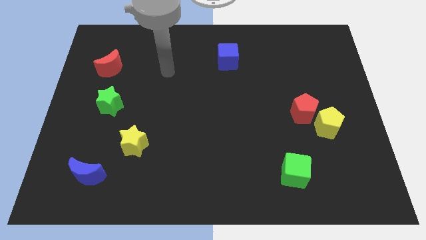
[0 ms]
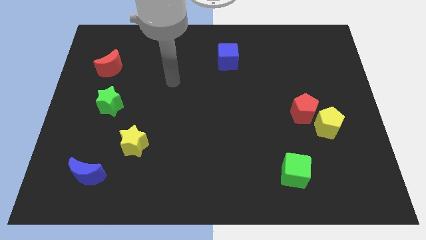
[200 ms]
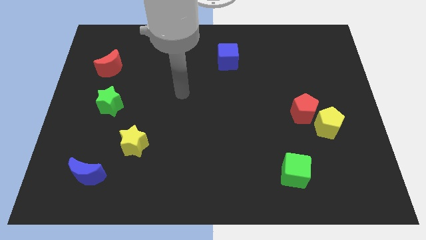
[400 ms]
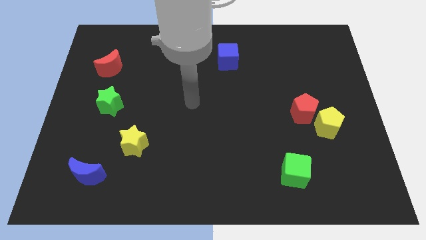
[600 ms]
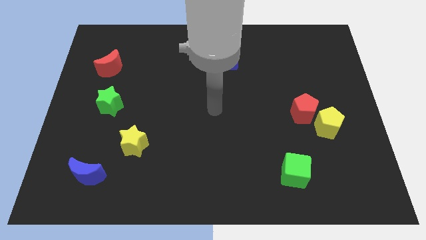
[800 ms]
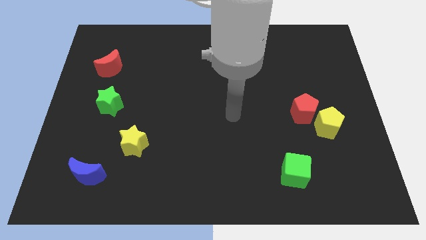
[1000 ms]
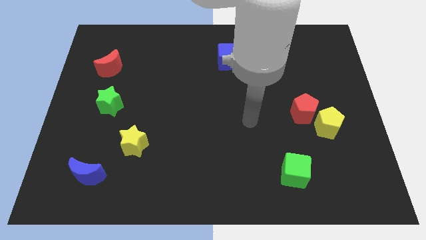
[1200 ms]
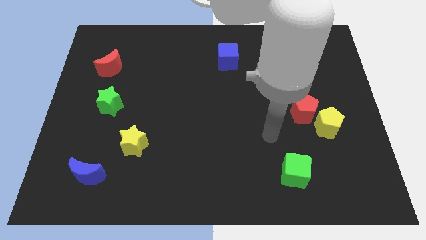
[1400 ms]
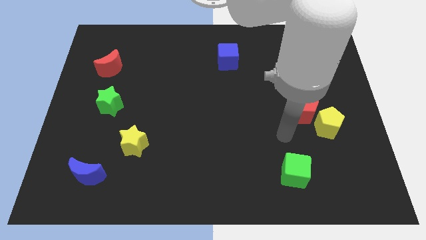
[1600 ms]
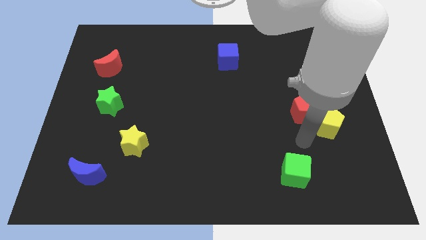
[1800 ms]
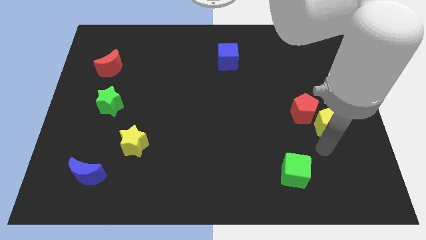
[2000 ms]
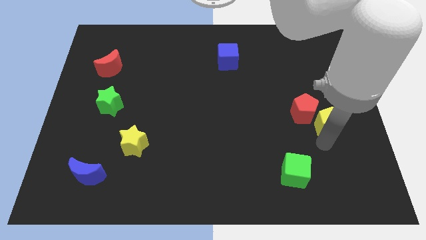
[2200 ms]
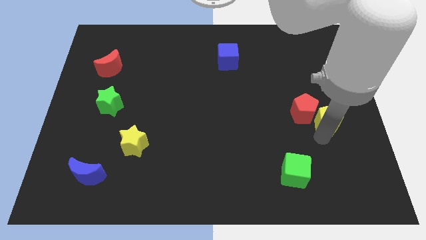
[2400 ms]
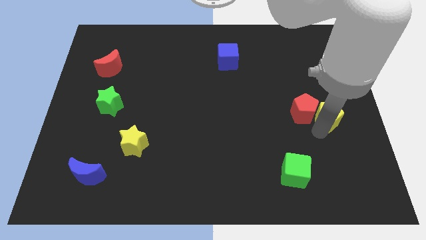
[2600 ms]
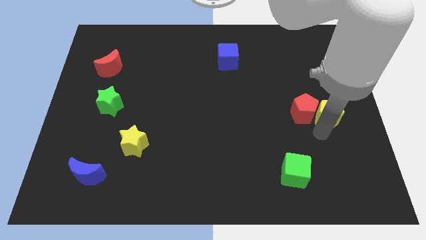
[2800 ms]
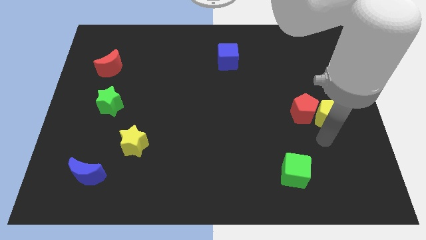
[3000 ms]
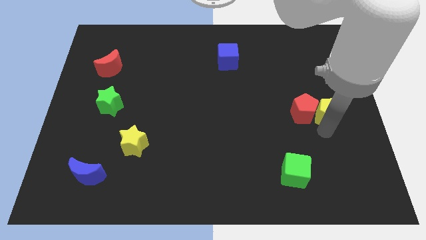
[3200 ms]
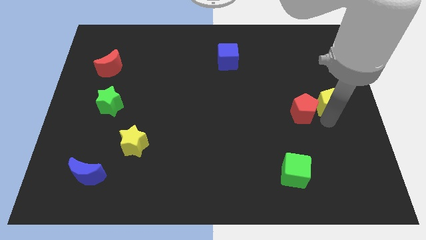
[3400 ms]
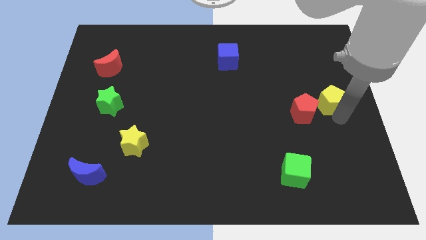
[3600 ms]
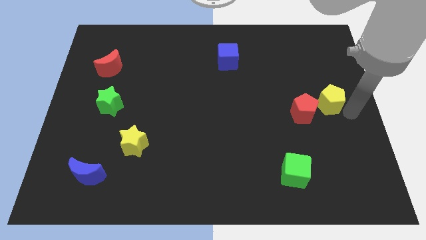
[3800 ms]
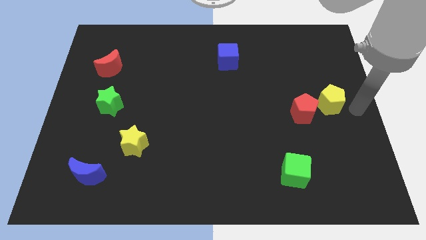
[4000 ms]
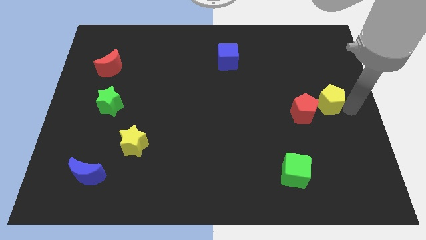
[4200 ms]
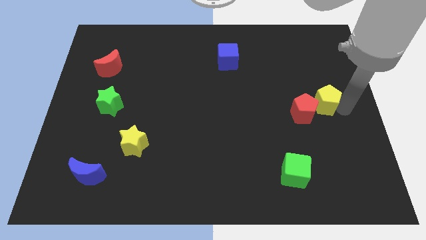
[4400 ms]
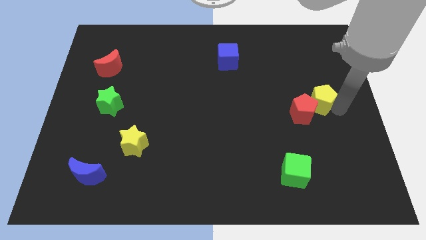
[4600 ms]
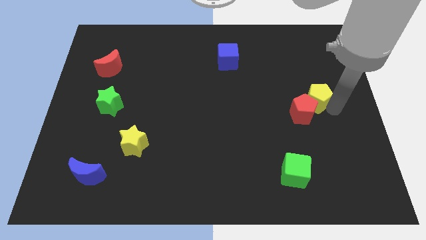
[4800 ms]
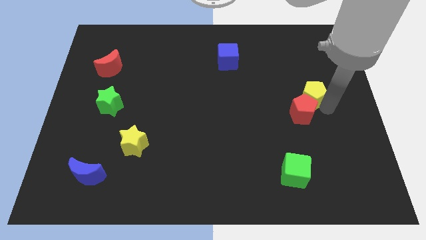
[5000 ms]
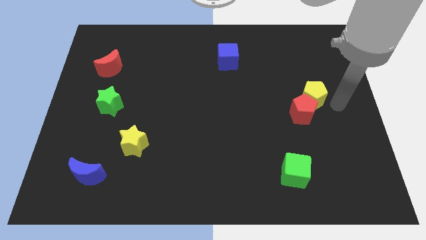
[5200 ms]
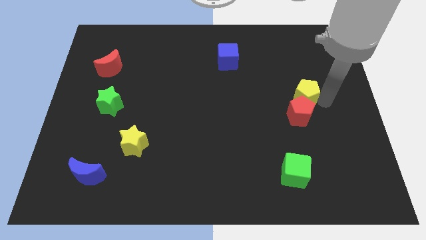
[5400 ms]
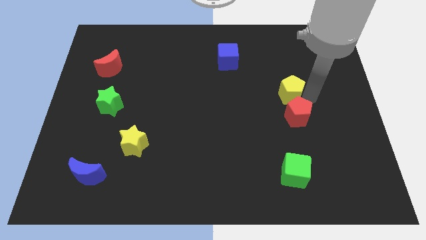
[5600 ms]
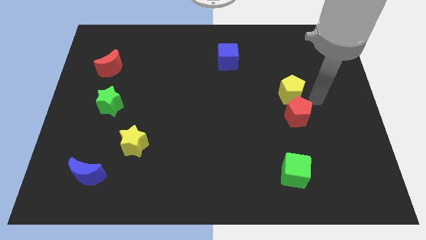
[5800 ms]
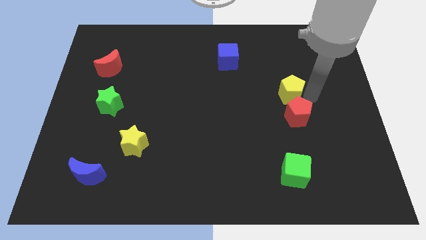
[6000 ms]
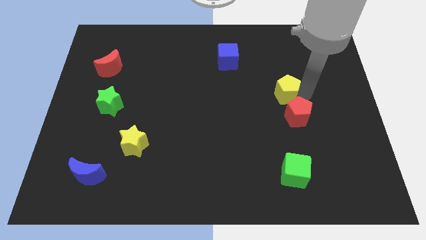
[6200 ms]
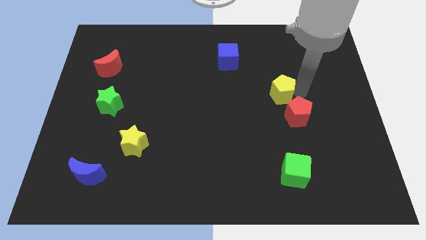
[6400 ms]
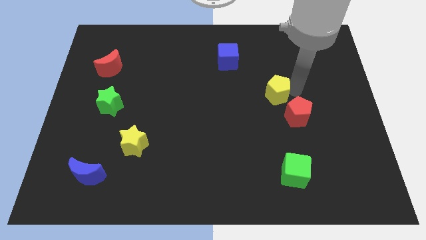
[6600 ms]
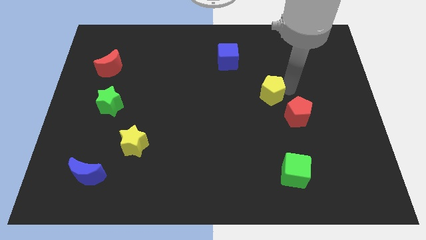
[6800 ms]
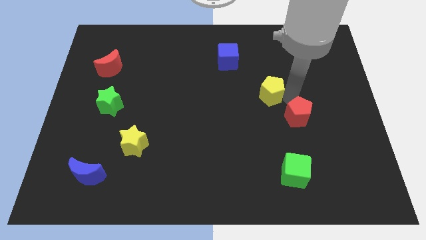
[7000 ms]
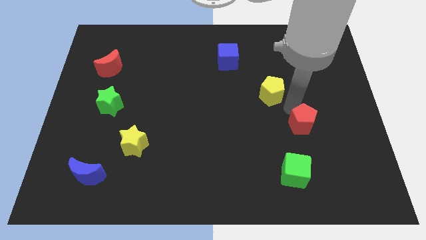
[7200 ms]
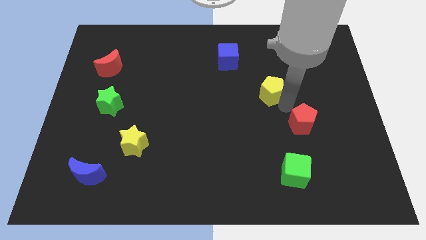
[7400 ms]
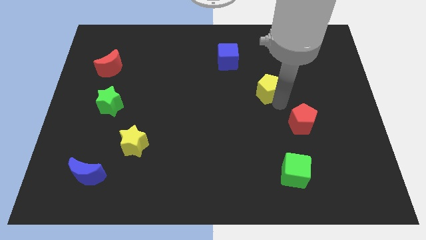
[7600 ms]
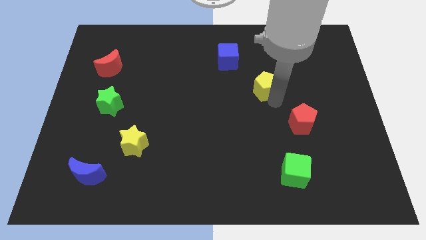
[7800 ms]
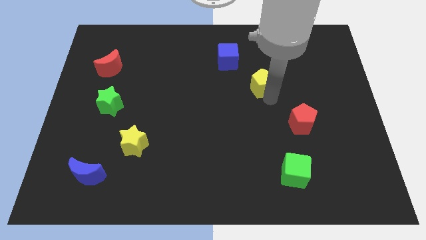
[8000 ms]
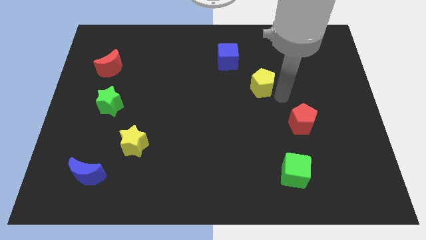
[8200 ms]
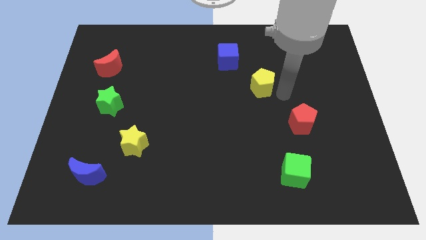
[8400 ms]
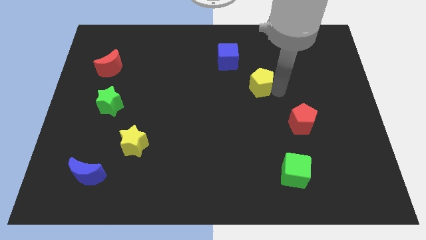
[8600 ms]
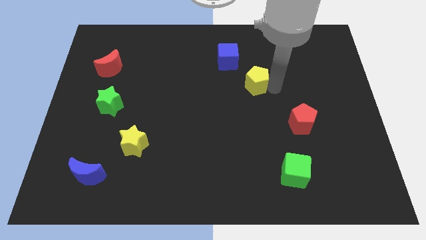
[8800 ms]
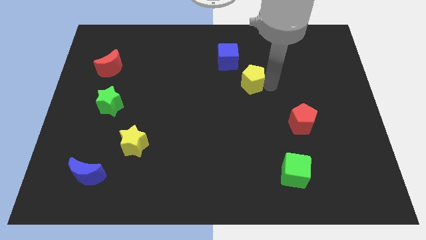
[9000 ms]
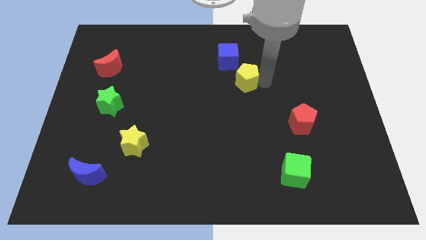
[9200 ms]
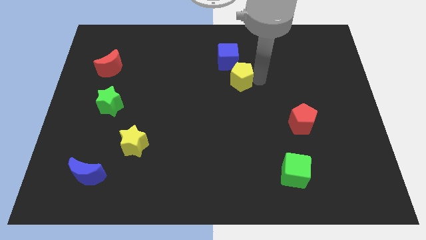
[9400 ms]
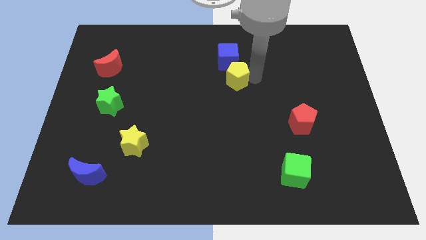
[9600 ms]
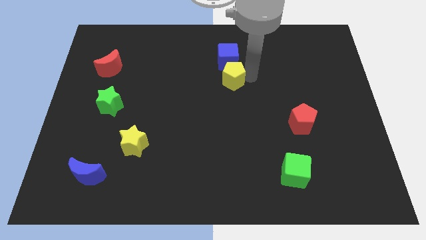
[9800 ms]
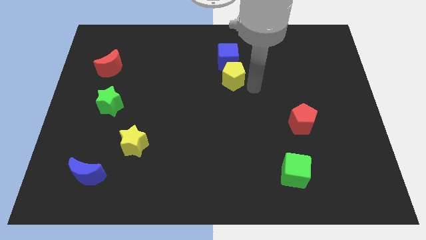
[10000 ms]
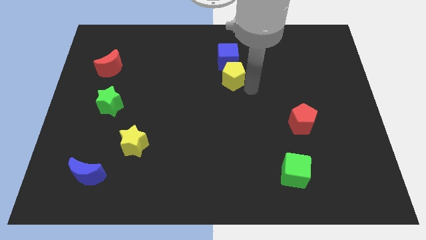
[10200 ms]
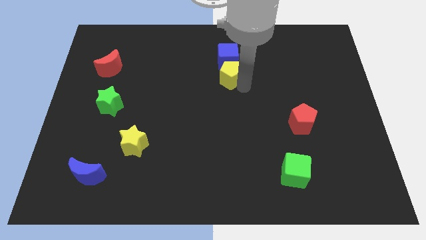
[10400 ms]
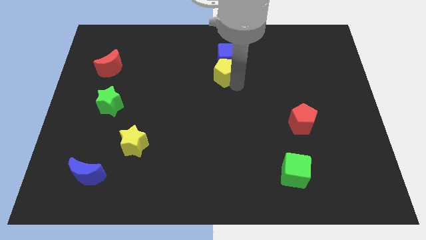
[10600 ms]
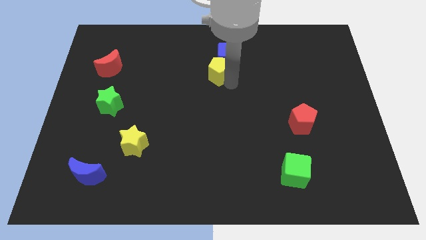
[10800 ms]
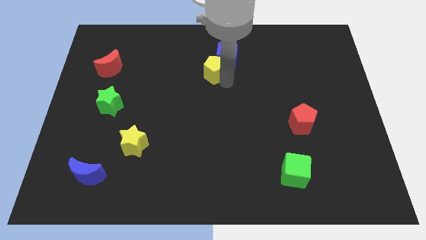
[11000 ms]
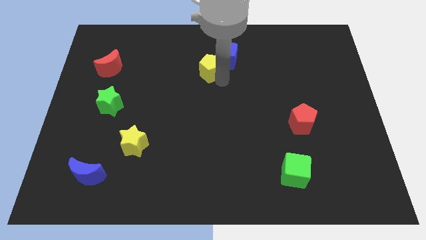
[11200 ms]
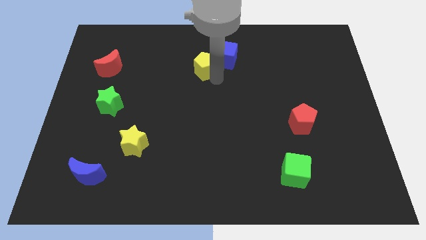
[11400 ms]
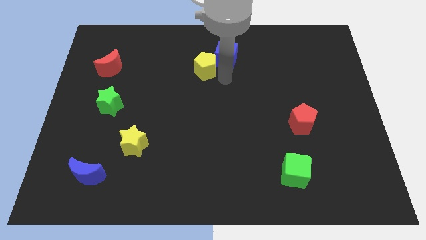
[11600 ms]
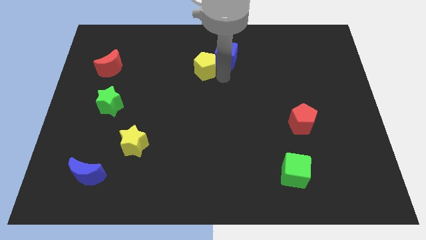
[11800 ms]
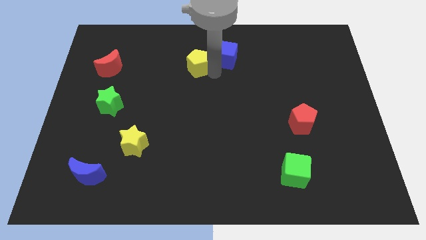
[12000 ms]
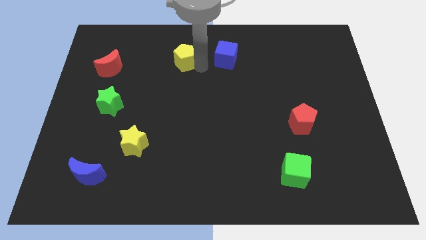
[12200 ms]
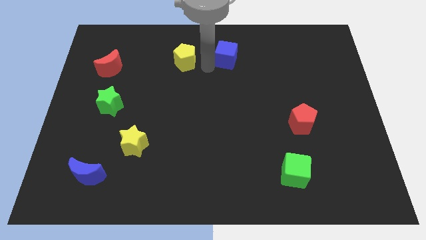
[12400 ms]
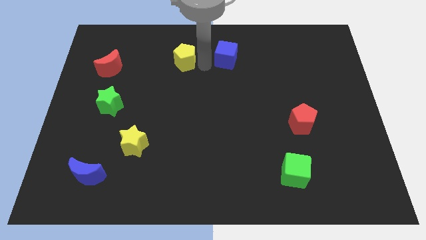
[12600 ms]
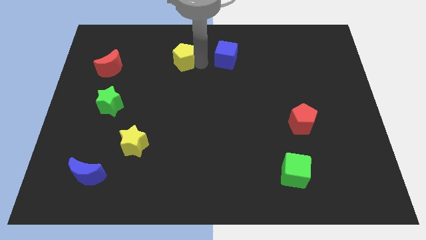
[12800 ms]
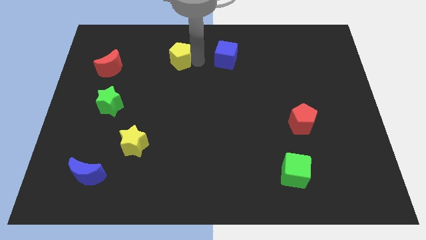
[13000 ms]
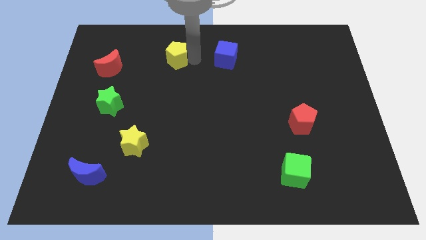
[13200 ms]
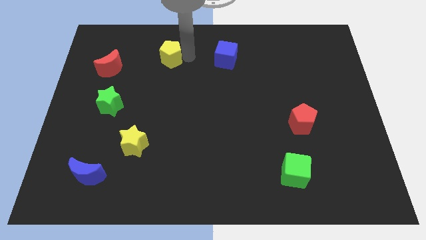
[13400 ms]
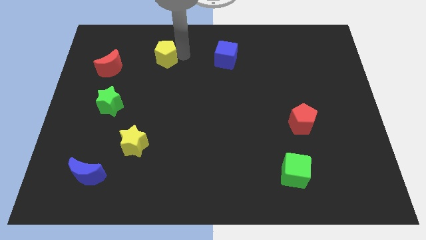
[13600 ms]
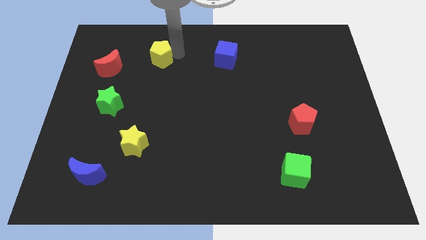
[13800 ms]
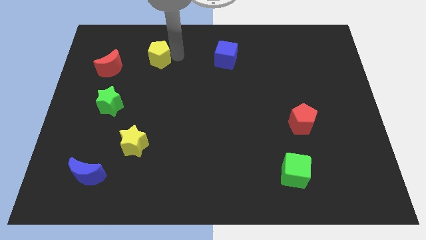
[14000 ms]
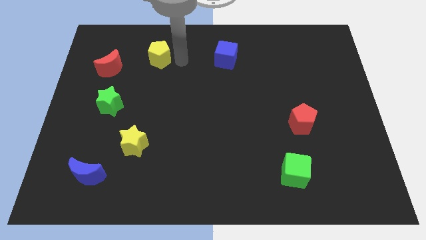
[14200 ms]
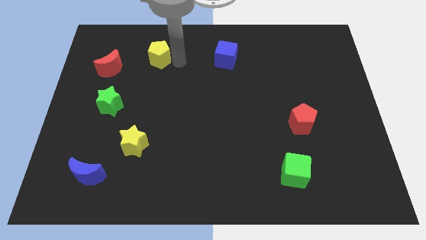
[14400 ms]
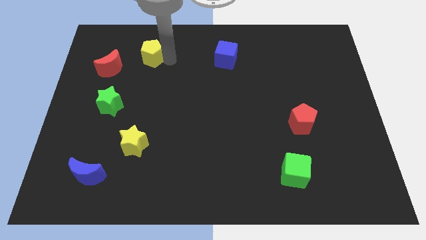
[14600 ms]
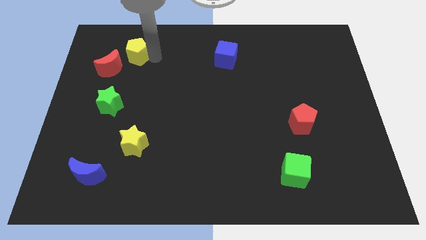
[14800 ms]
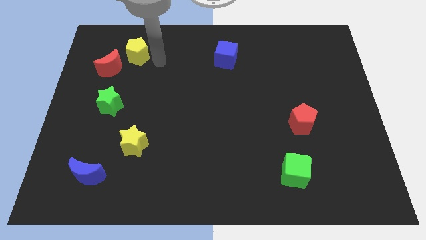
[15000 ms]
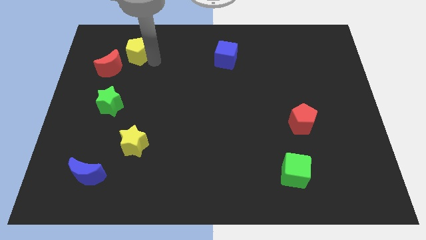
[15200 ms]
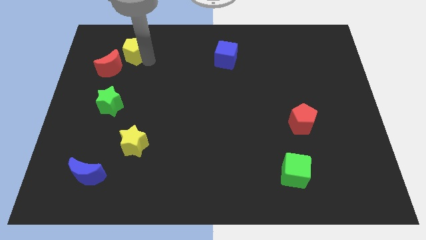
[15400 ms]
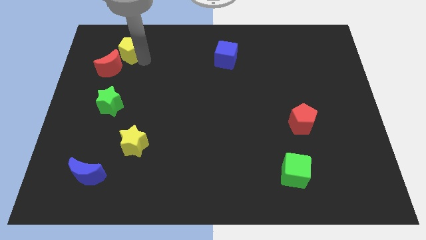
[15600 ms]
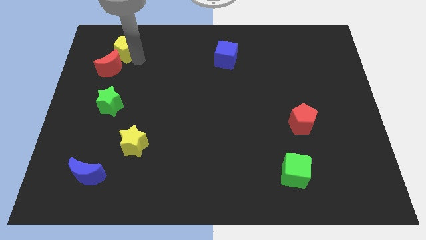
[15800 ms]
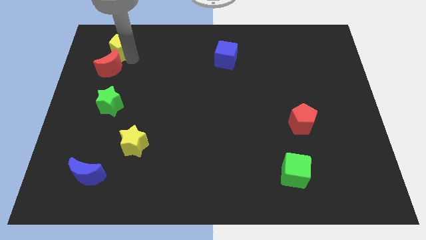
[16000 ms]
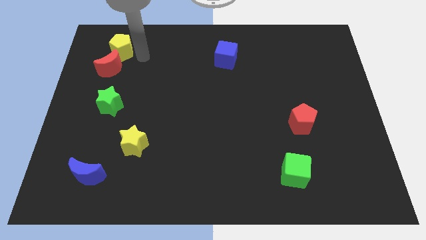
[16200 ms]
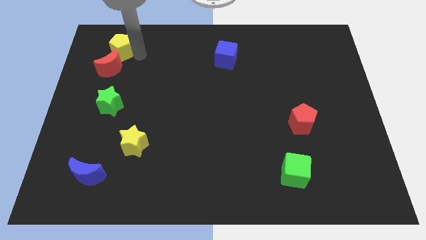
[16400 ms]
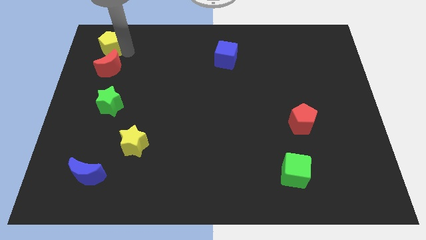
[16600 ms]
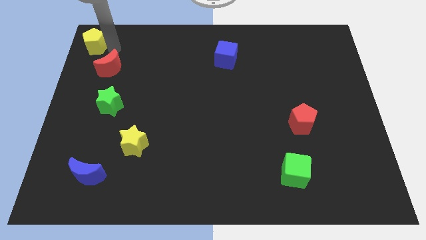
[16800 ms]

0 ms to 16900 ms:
move the yellow pentagon to the top left corner
